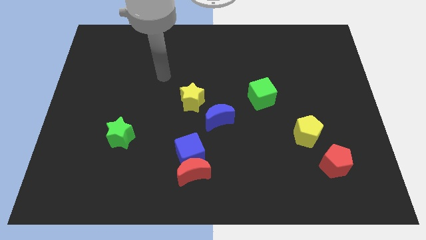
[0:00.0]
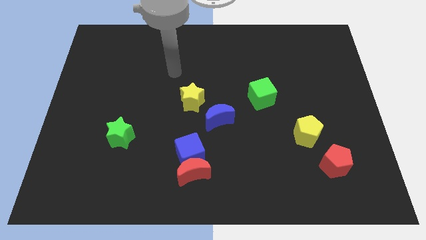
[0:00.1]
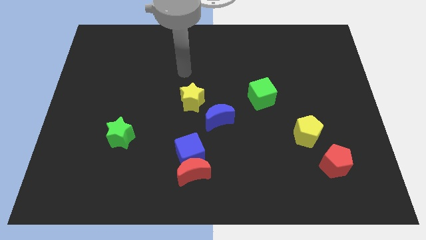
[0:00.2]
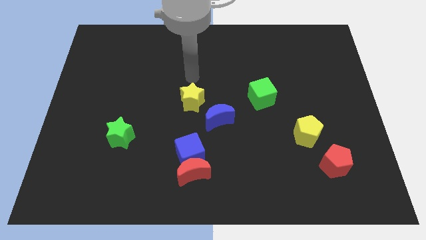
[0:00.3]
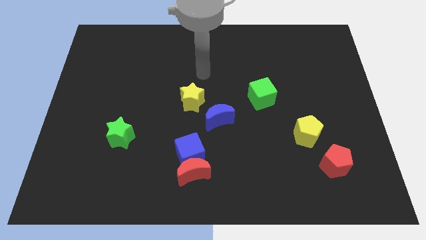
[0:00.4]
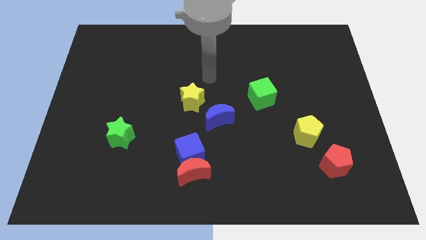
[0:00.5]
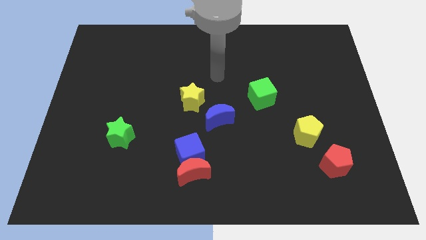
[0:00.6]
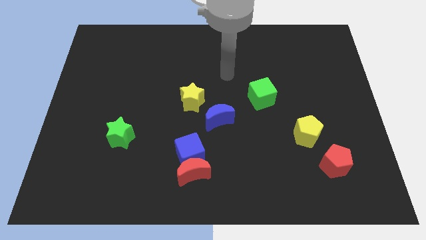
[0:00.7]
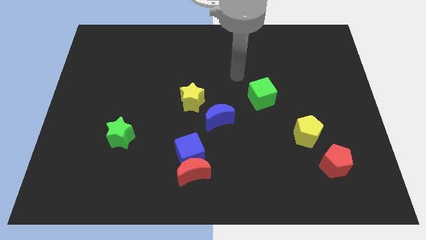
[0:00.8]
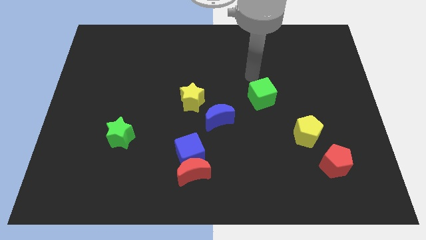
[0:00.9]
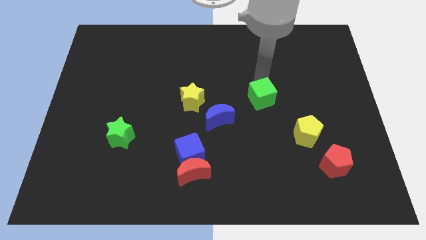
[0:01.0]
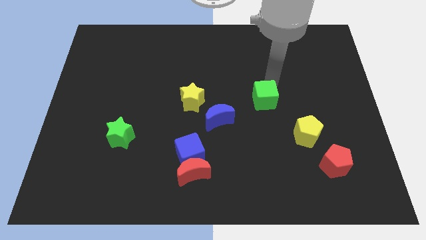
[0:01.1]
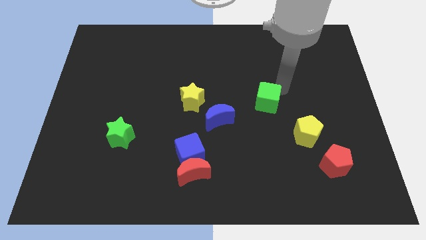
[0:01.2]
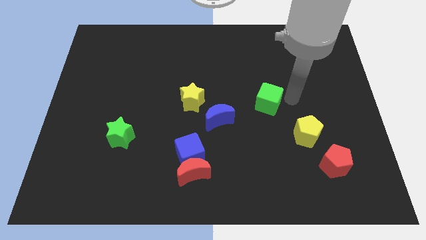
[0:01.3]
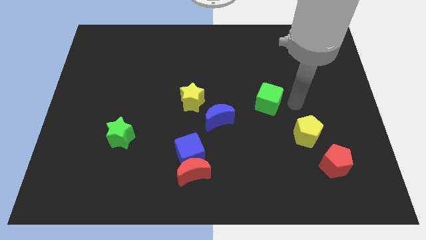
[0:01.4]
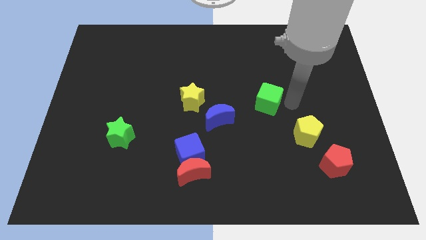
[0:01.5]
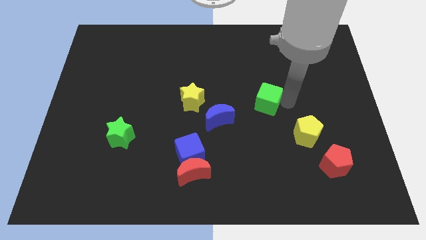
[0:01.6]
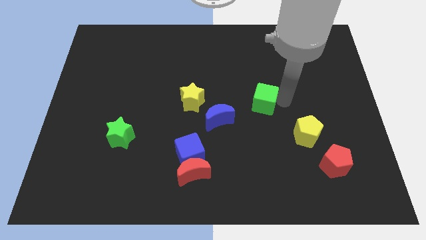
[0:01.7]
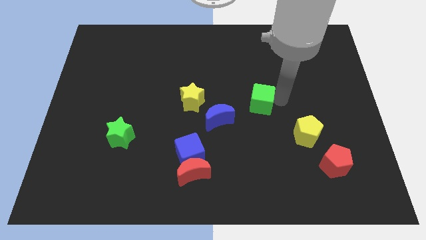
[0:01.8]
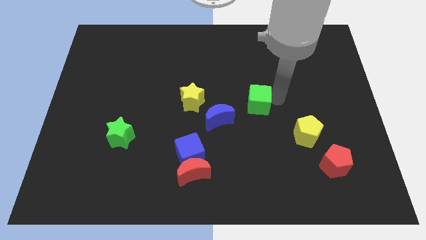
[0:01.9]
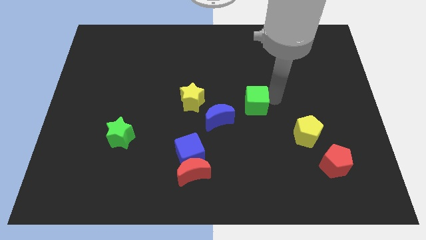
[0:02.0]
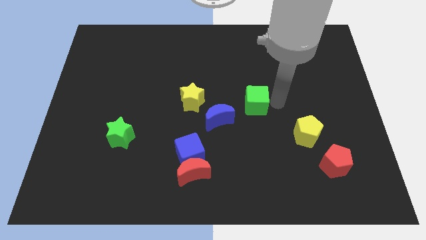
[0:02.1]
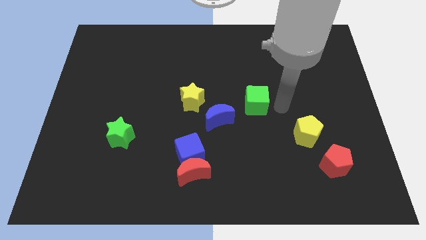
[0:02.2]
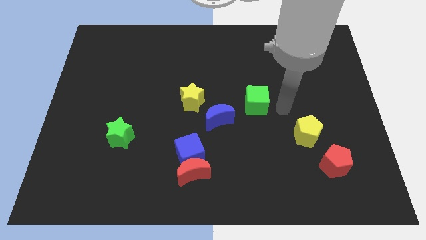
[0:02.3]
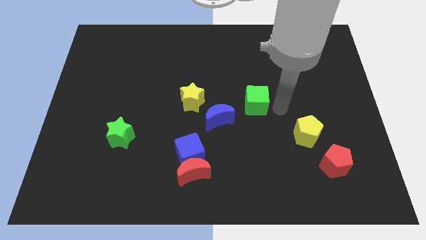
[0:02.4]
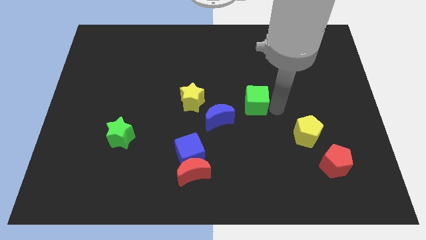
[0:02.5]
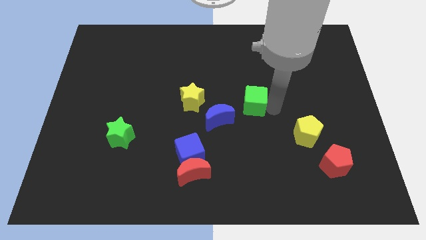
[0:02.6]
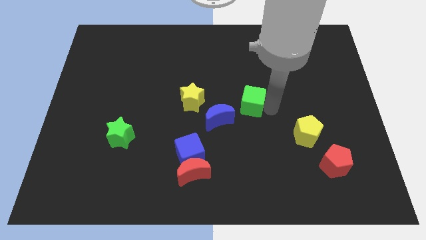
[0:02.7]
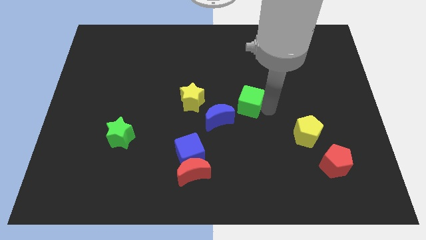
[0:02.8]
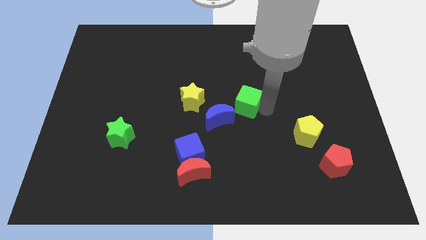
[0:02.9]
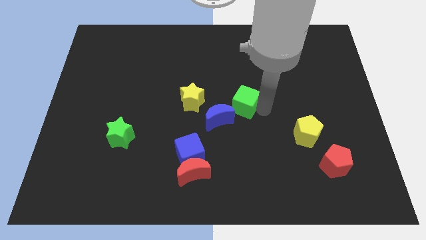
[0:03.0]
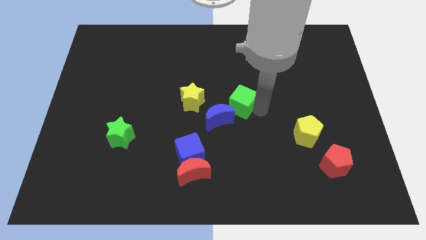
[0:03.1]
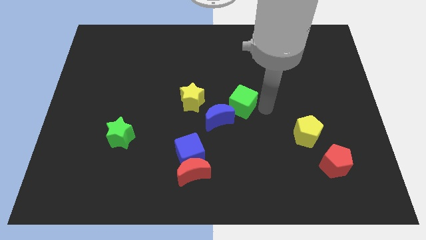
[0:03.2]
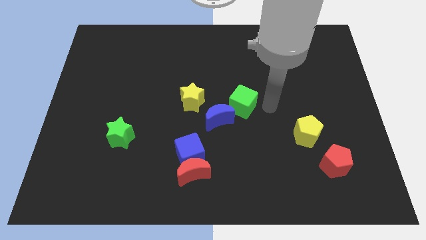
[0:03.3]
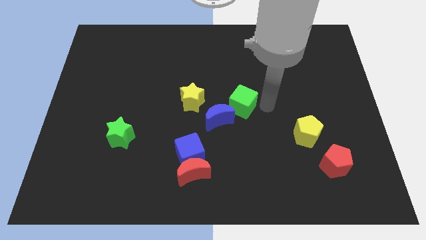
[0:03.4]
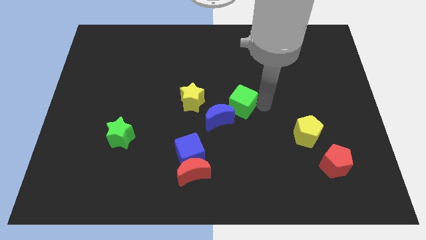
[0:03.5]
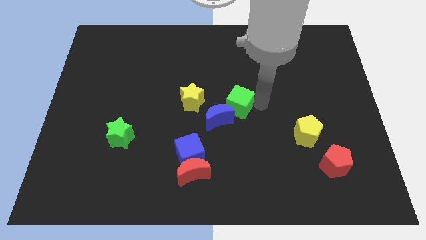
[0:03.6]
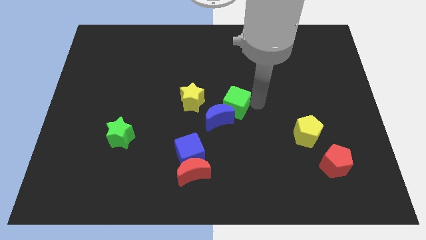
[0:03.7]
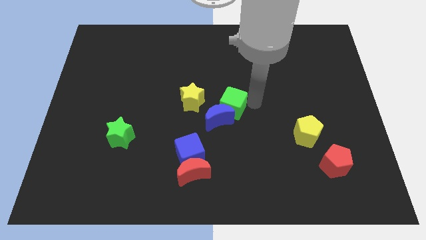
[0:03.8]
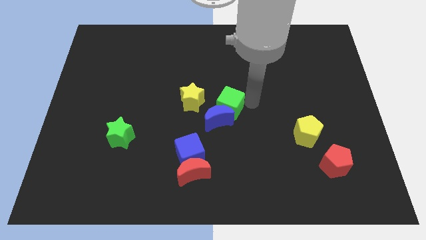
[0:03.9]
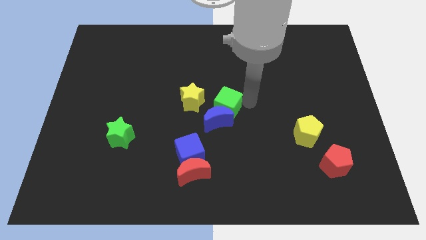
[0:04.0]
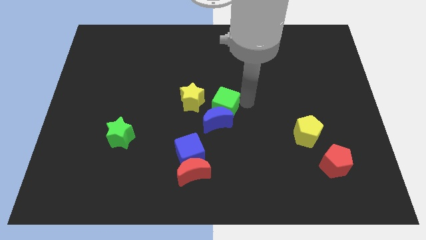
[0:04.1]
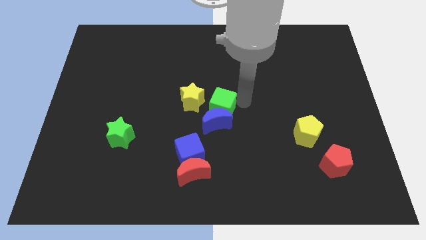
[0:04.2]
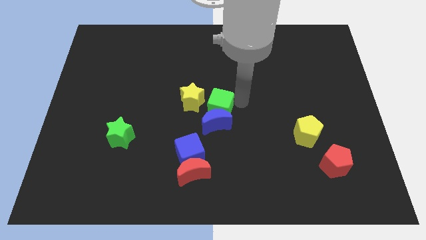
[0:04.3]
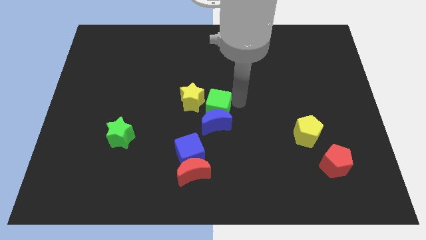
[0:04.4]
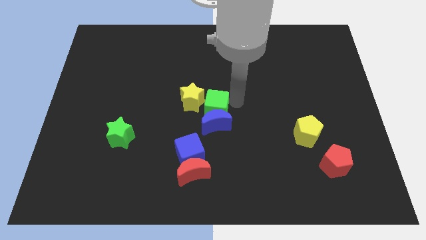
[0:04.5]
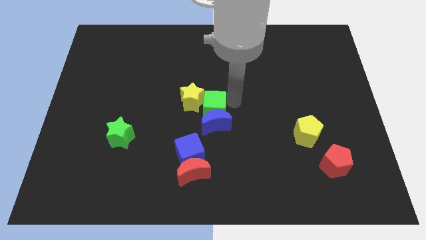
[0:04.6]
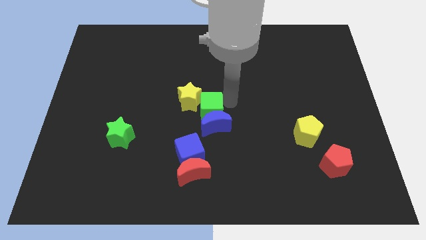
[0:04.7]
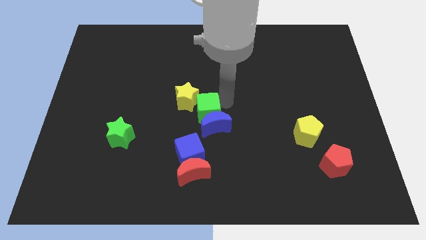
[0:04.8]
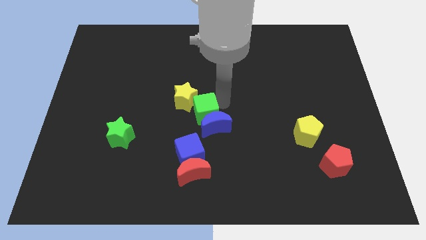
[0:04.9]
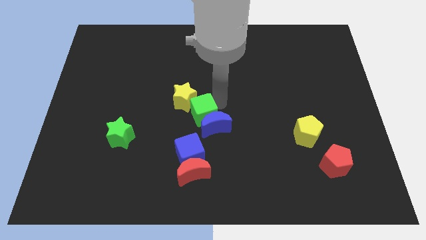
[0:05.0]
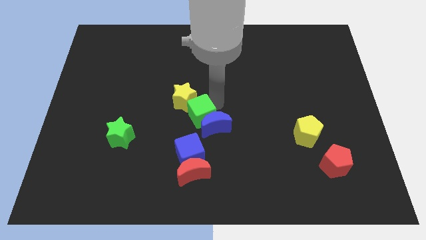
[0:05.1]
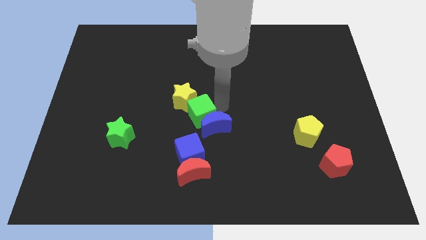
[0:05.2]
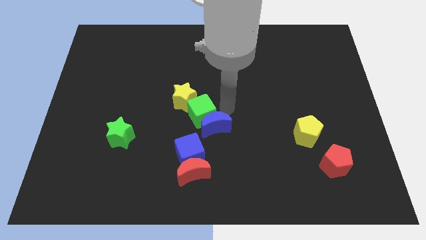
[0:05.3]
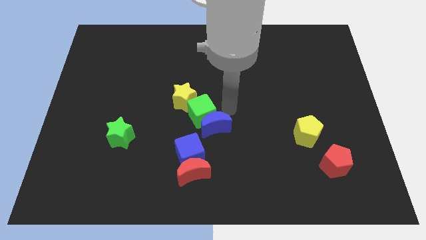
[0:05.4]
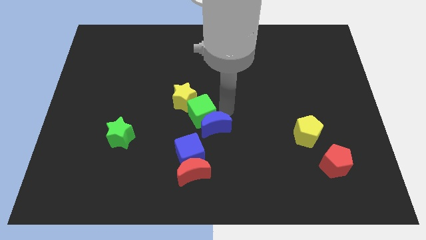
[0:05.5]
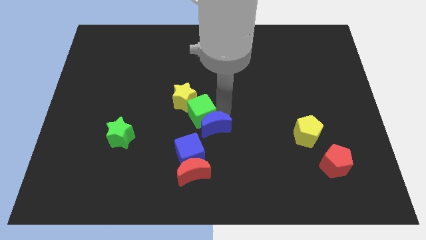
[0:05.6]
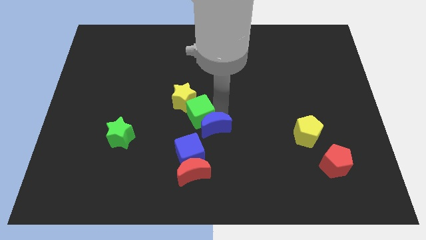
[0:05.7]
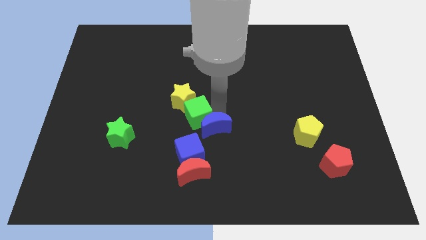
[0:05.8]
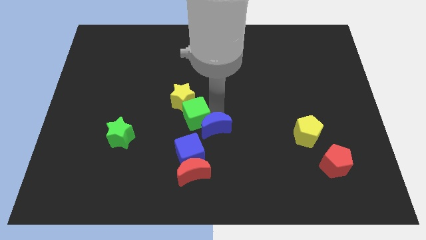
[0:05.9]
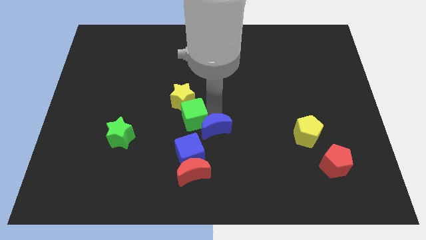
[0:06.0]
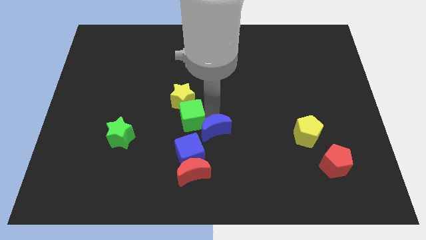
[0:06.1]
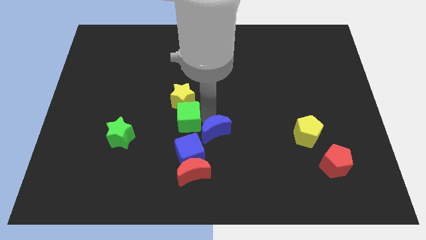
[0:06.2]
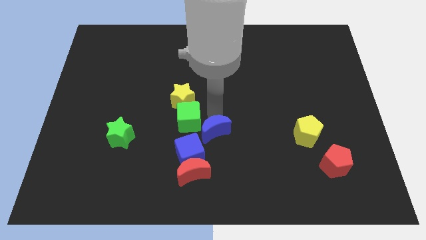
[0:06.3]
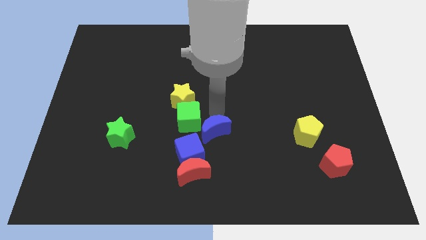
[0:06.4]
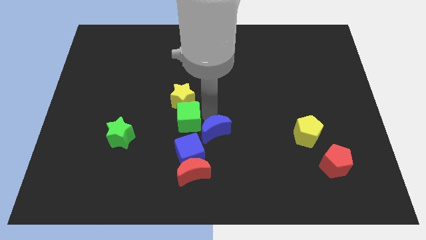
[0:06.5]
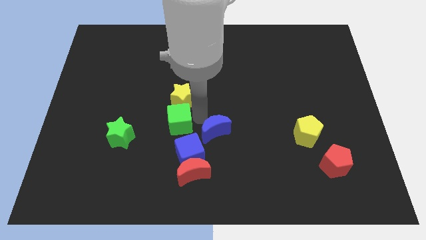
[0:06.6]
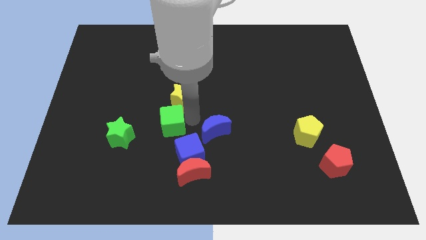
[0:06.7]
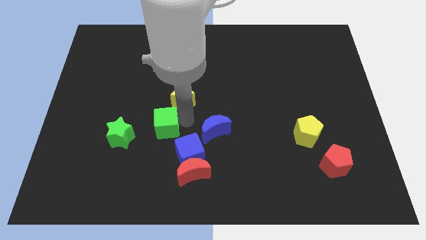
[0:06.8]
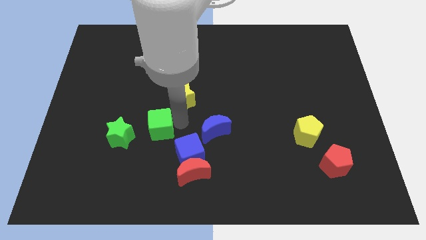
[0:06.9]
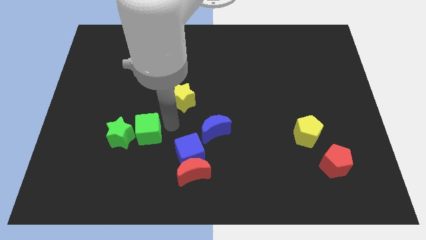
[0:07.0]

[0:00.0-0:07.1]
push the green cube next to the green star
